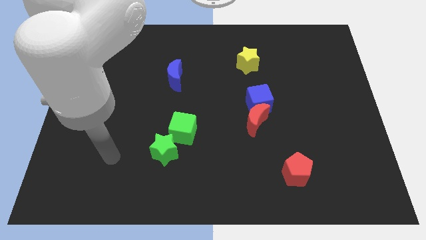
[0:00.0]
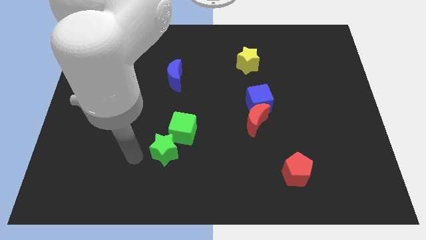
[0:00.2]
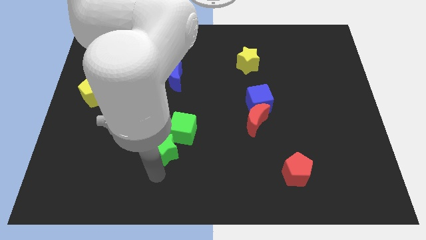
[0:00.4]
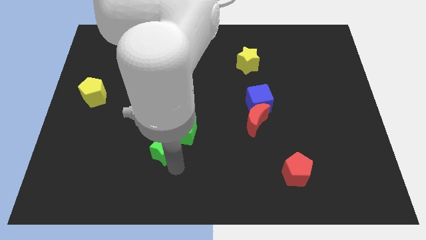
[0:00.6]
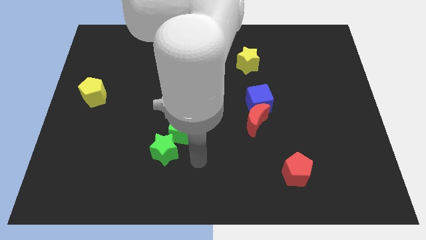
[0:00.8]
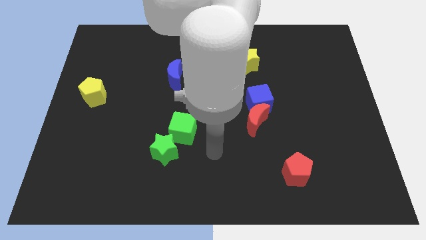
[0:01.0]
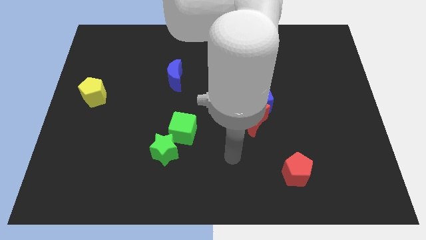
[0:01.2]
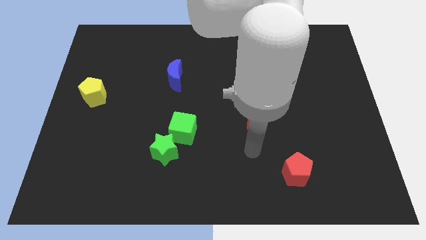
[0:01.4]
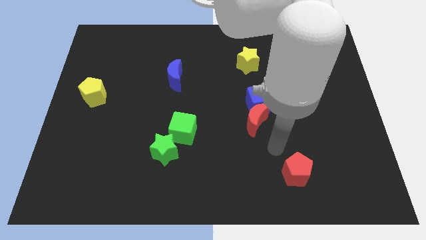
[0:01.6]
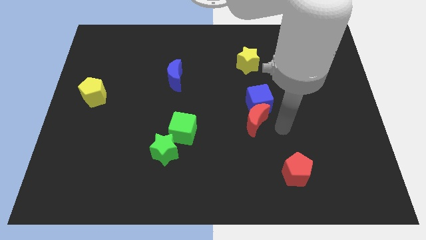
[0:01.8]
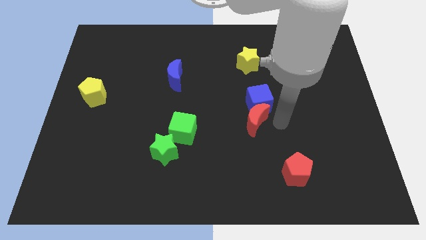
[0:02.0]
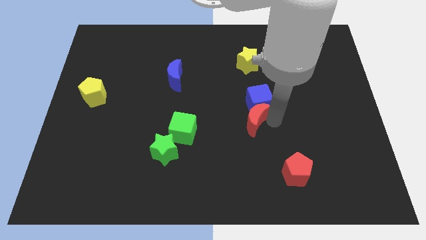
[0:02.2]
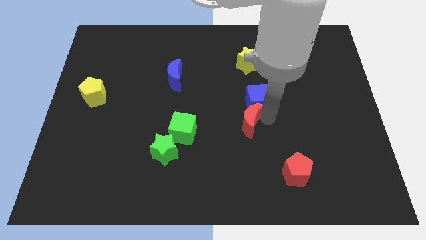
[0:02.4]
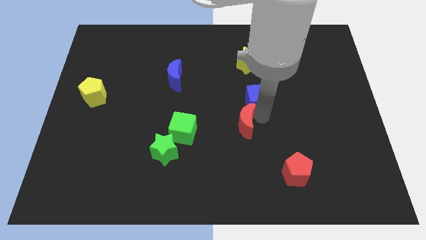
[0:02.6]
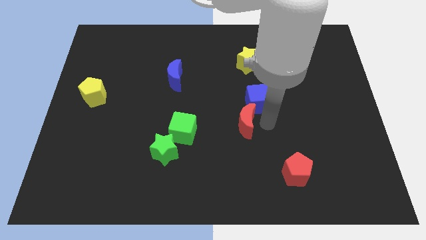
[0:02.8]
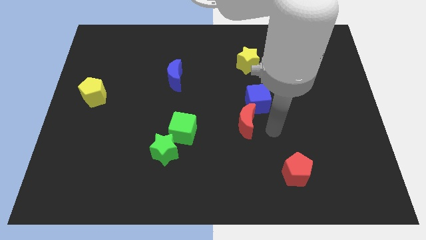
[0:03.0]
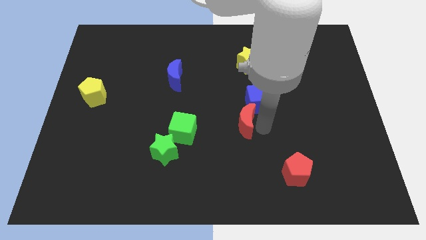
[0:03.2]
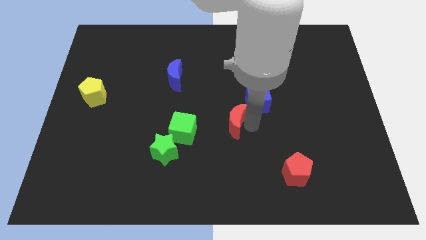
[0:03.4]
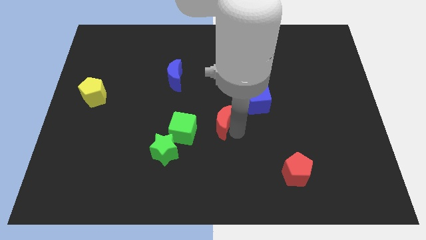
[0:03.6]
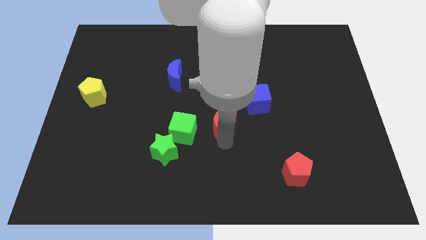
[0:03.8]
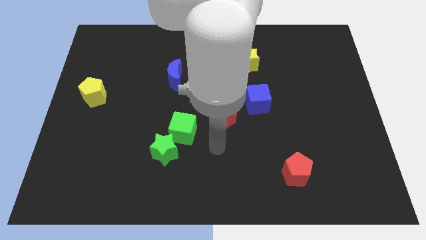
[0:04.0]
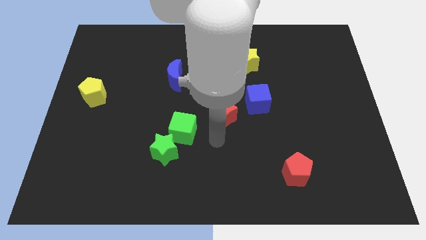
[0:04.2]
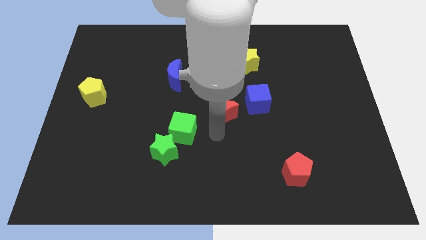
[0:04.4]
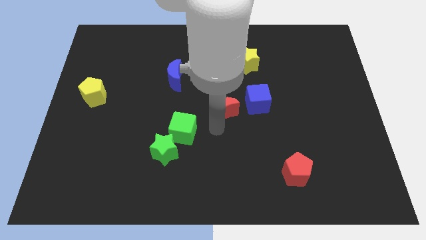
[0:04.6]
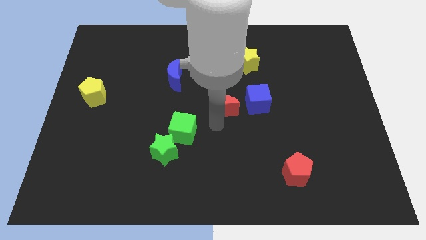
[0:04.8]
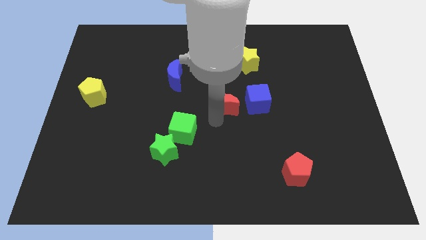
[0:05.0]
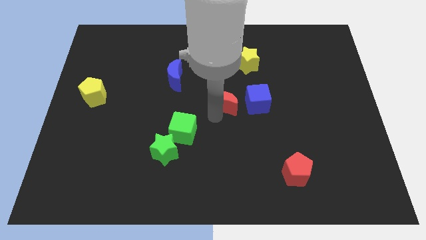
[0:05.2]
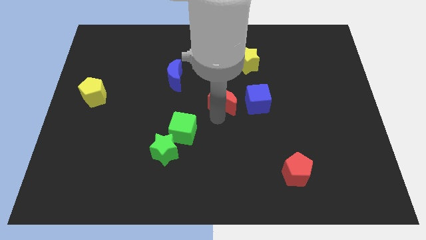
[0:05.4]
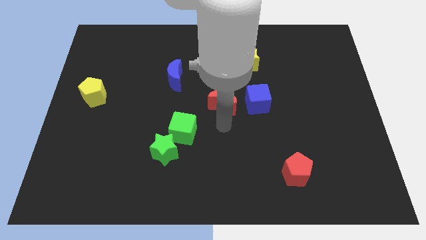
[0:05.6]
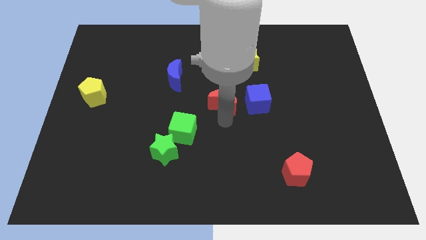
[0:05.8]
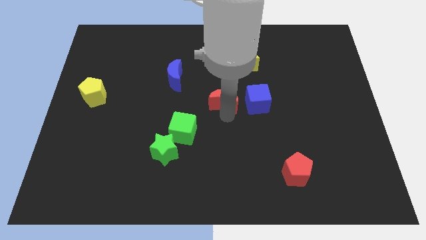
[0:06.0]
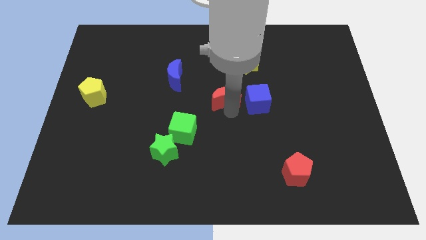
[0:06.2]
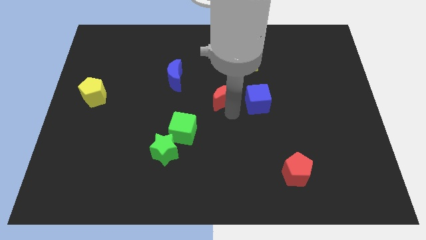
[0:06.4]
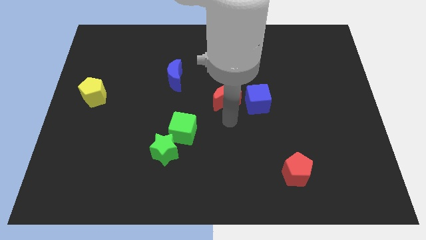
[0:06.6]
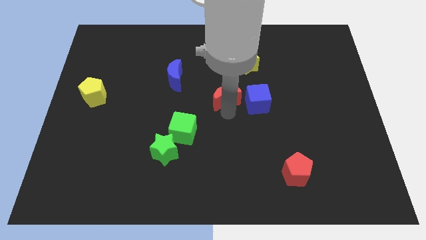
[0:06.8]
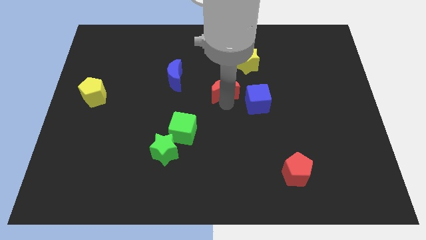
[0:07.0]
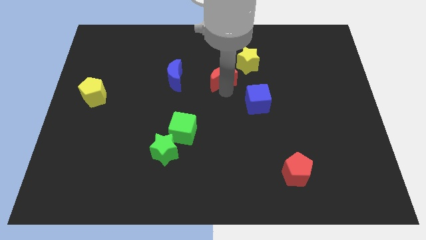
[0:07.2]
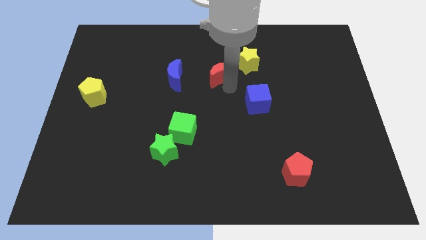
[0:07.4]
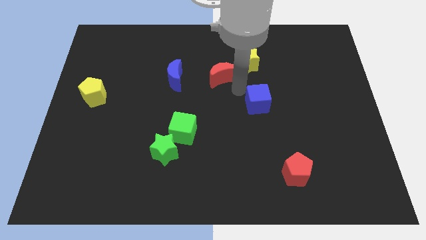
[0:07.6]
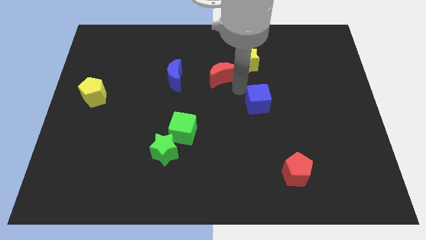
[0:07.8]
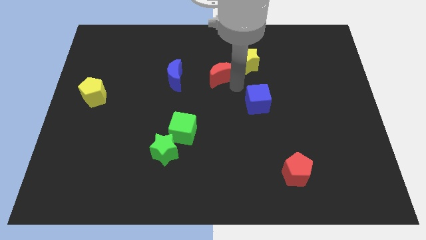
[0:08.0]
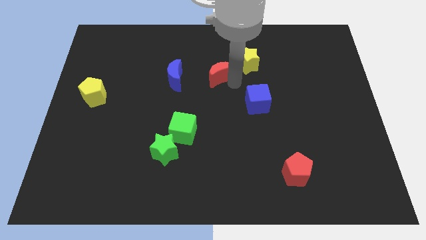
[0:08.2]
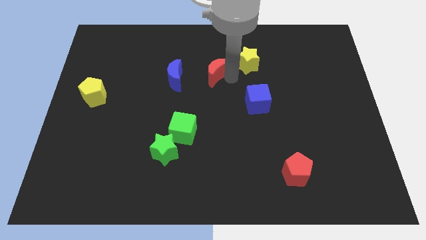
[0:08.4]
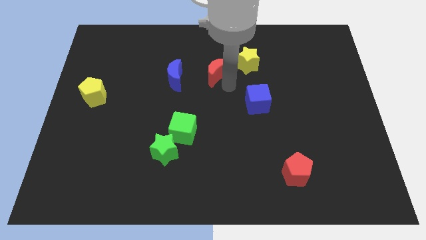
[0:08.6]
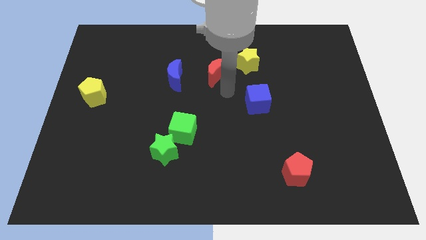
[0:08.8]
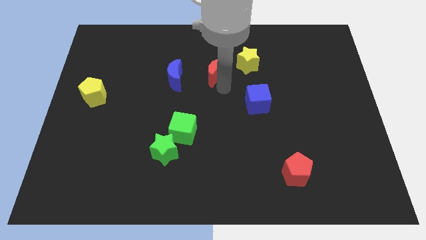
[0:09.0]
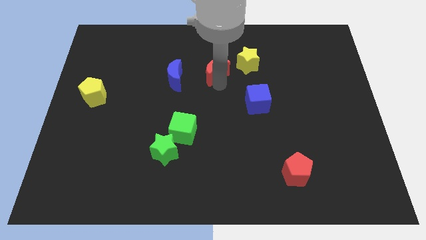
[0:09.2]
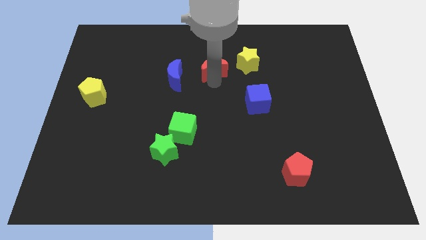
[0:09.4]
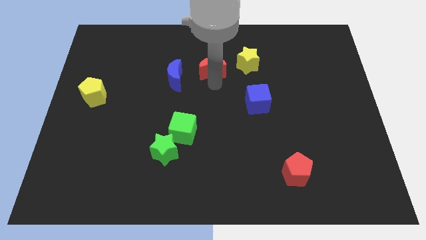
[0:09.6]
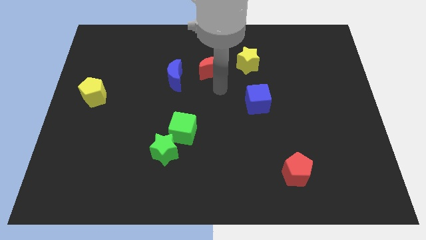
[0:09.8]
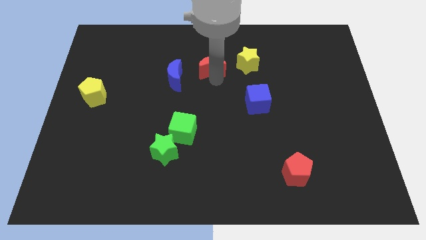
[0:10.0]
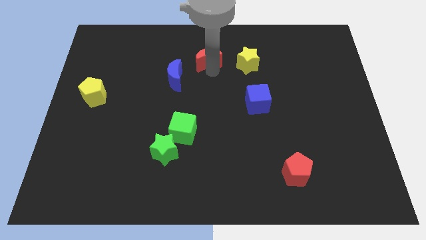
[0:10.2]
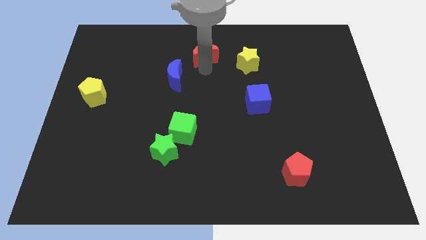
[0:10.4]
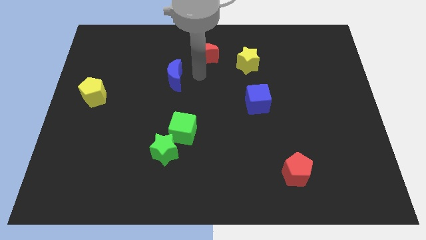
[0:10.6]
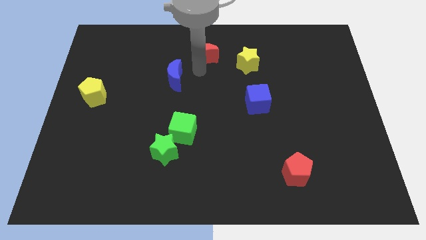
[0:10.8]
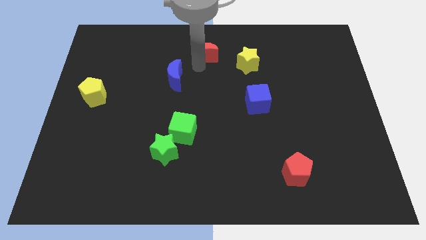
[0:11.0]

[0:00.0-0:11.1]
push the red moon to the top
